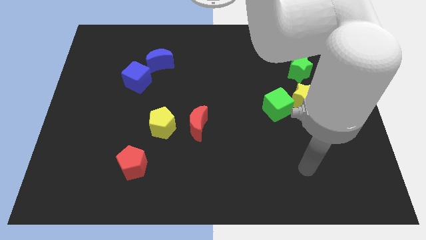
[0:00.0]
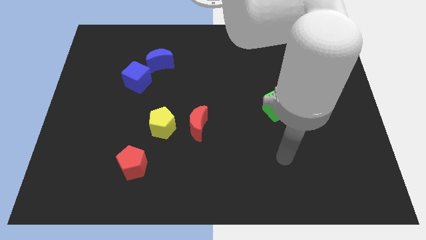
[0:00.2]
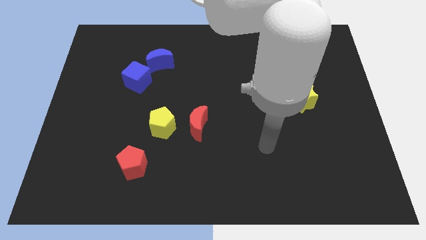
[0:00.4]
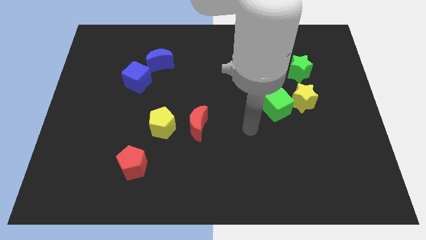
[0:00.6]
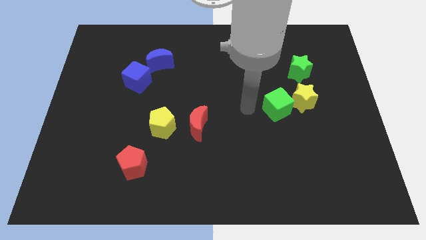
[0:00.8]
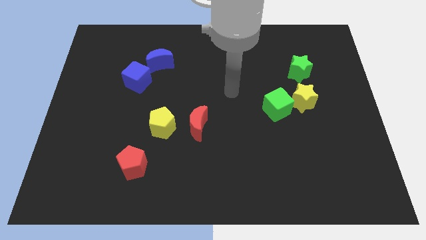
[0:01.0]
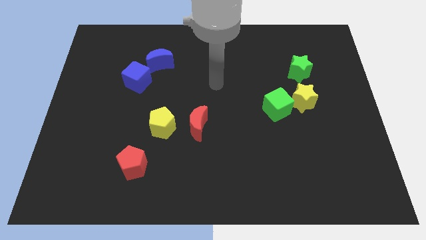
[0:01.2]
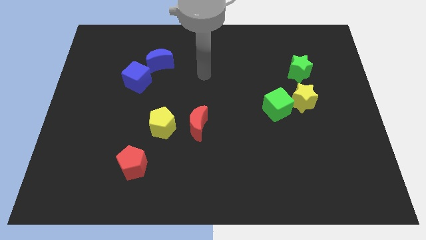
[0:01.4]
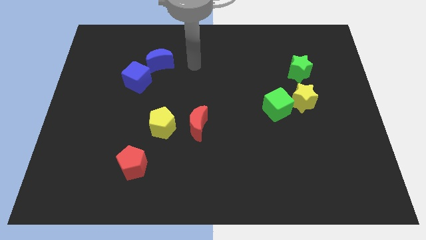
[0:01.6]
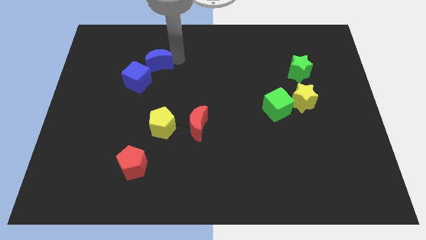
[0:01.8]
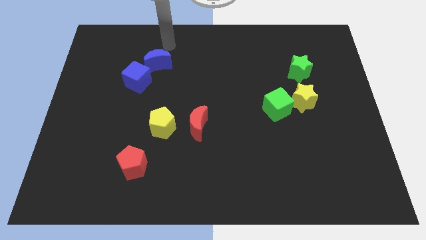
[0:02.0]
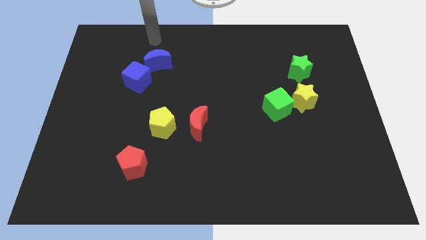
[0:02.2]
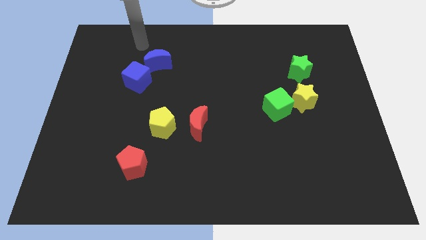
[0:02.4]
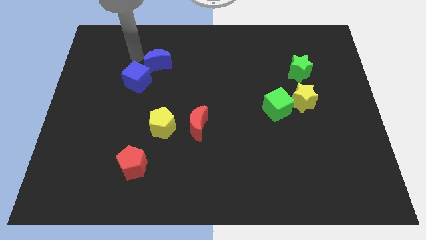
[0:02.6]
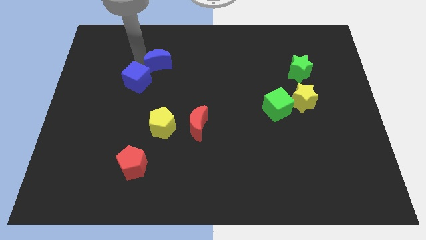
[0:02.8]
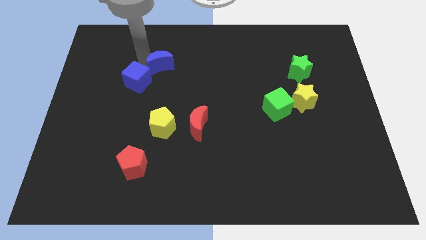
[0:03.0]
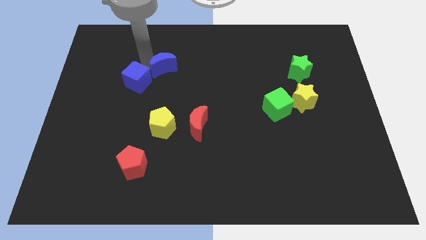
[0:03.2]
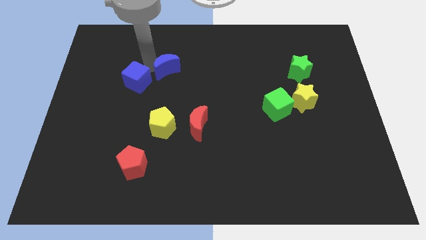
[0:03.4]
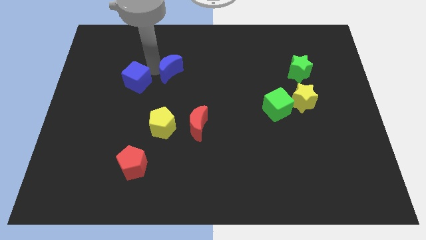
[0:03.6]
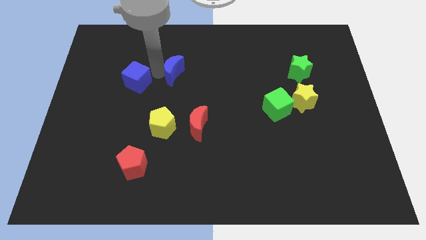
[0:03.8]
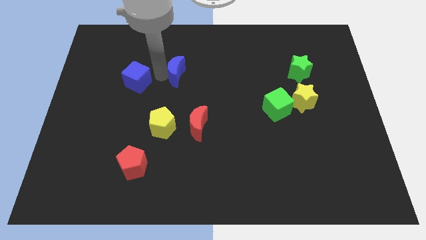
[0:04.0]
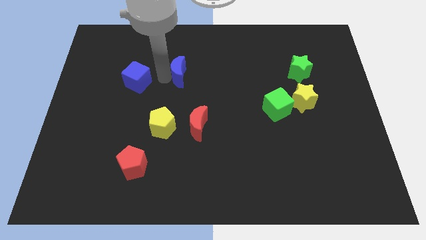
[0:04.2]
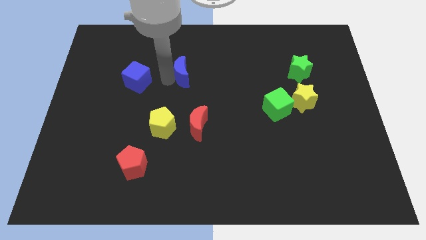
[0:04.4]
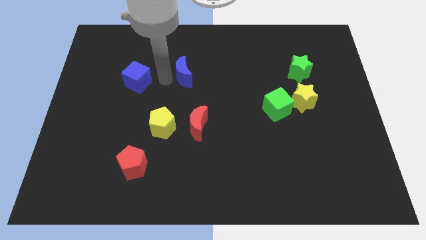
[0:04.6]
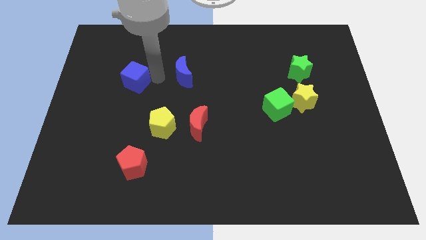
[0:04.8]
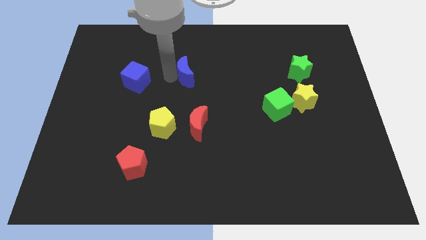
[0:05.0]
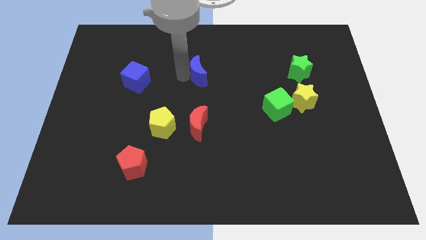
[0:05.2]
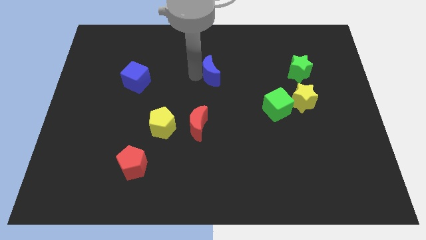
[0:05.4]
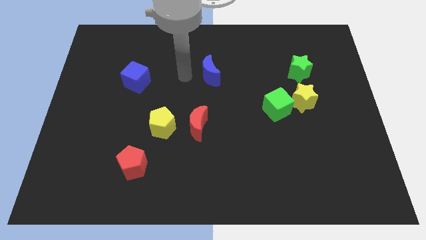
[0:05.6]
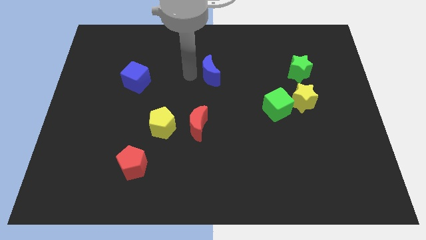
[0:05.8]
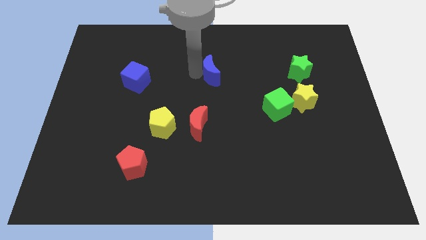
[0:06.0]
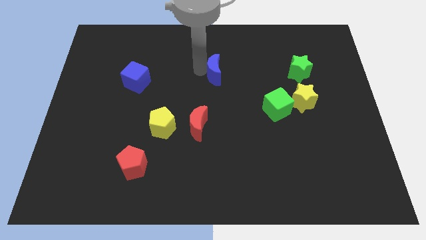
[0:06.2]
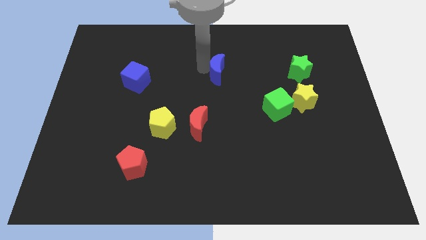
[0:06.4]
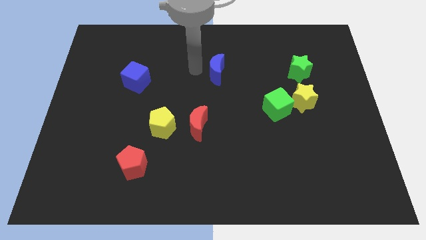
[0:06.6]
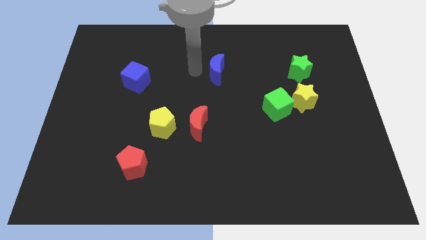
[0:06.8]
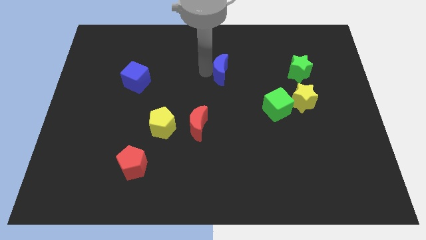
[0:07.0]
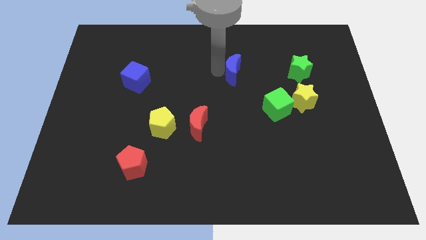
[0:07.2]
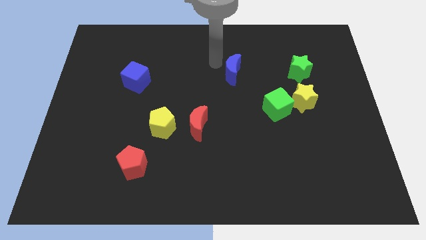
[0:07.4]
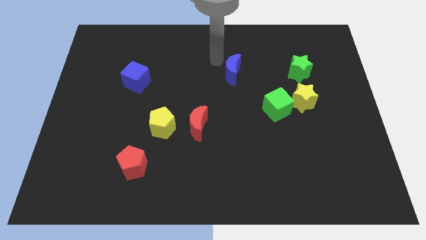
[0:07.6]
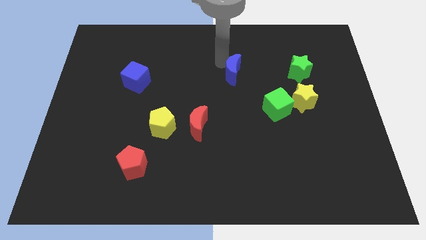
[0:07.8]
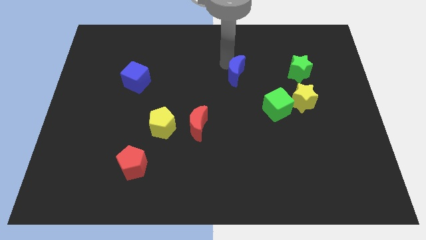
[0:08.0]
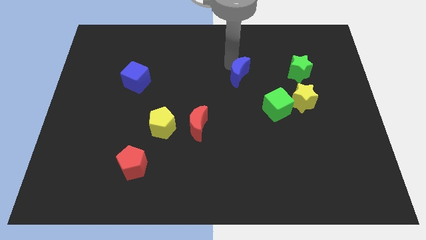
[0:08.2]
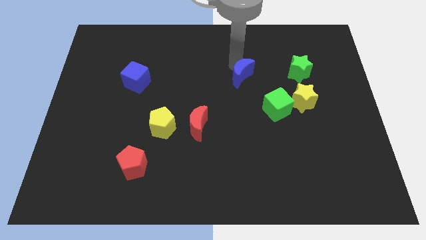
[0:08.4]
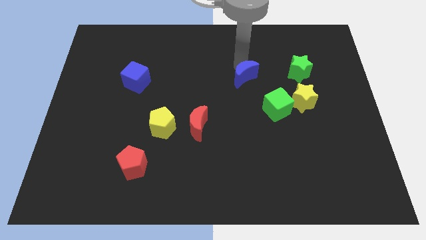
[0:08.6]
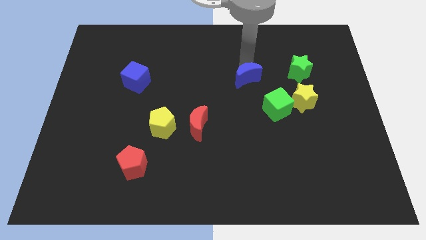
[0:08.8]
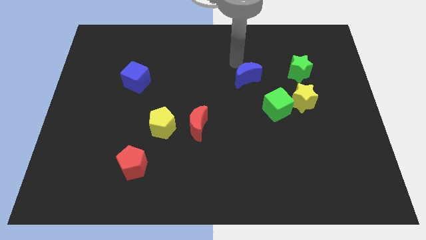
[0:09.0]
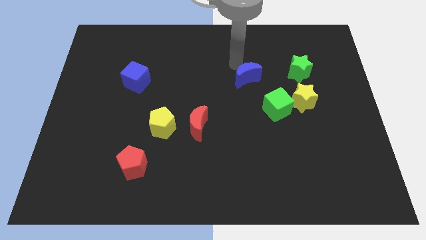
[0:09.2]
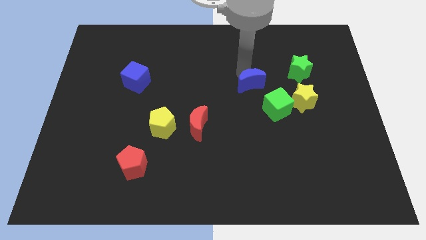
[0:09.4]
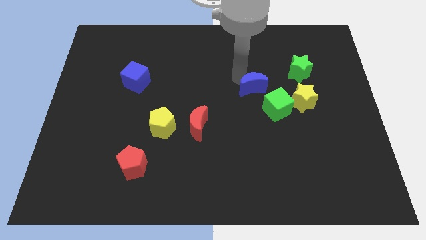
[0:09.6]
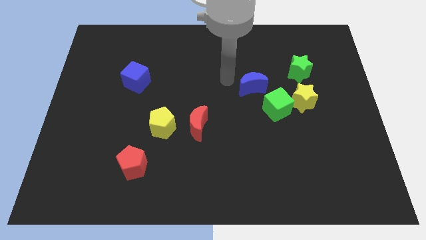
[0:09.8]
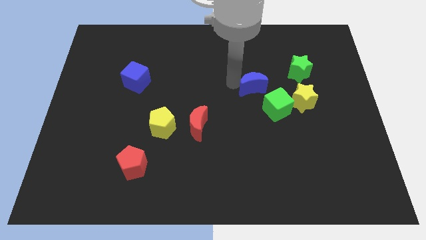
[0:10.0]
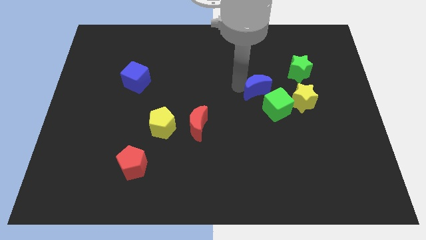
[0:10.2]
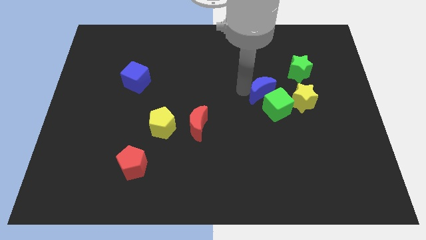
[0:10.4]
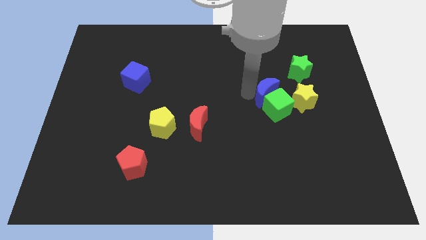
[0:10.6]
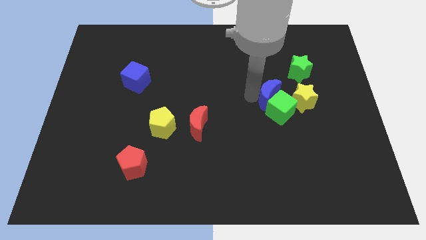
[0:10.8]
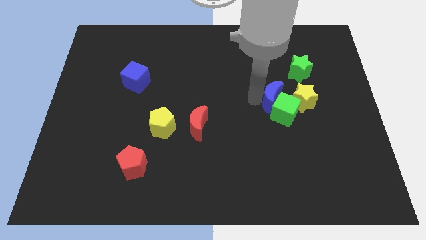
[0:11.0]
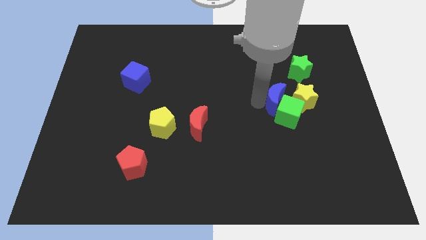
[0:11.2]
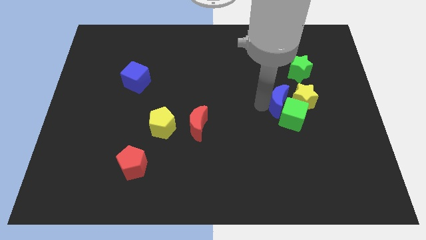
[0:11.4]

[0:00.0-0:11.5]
move the blue moon close to the yellow star
